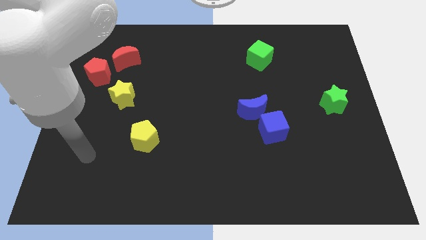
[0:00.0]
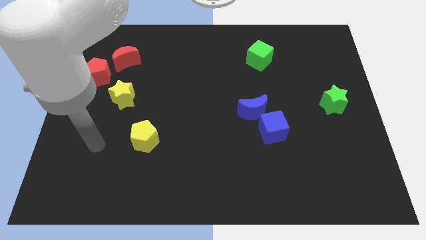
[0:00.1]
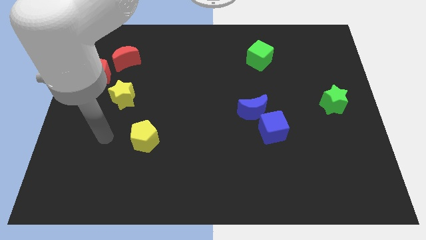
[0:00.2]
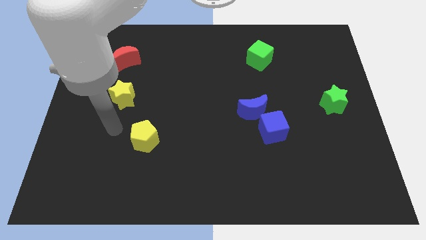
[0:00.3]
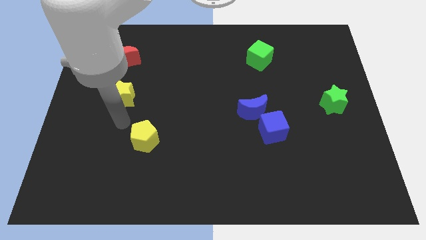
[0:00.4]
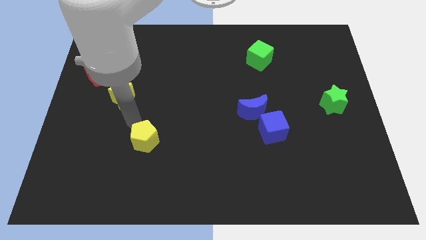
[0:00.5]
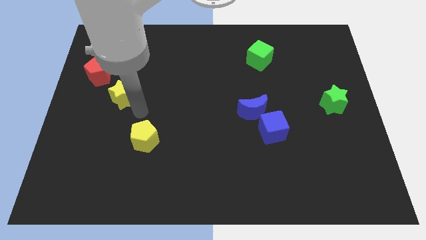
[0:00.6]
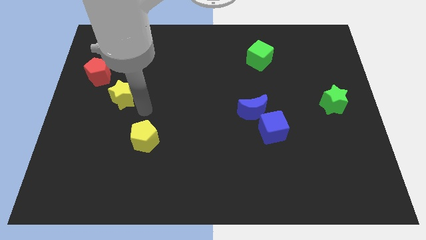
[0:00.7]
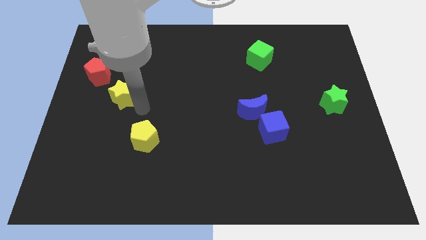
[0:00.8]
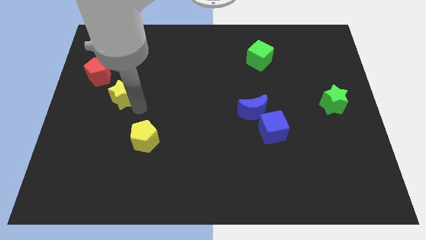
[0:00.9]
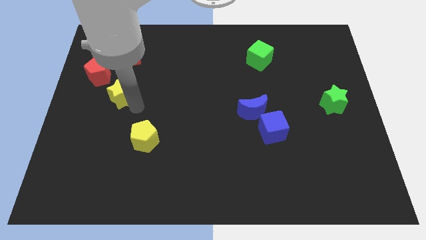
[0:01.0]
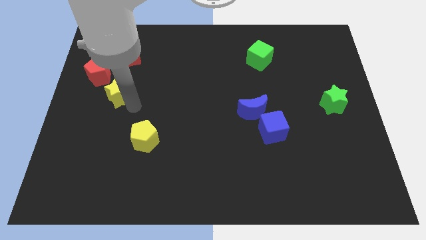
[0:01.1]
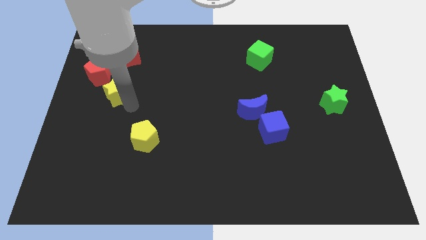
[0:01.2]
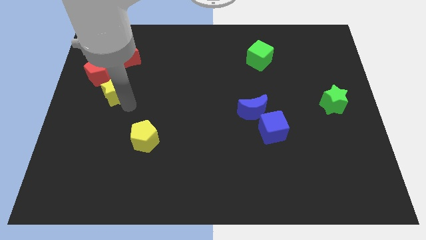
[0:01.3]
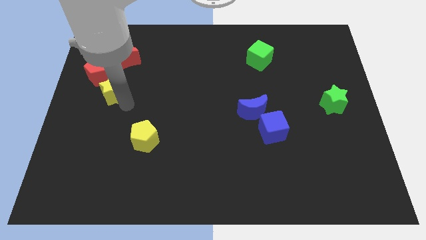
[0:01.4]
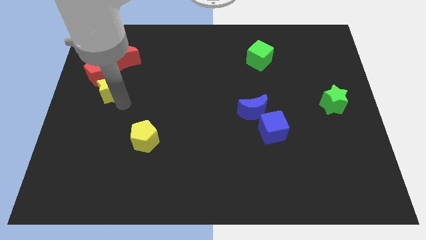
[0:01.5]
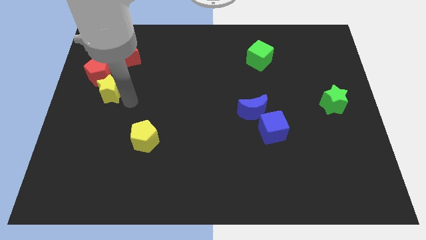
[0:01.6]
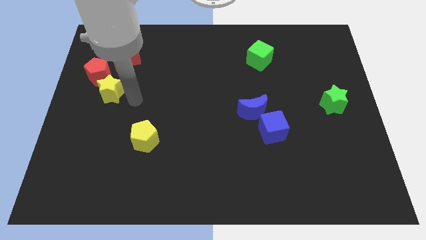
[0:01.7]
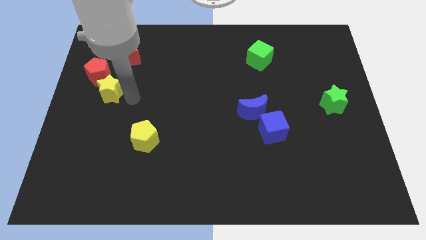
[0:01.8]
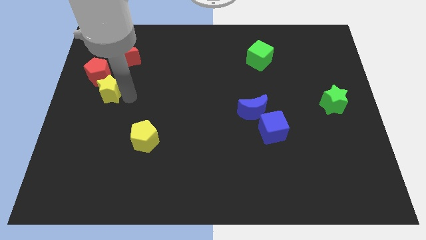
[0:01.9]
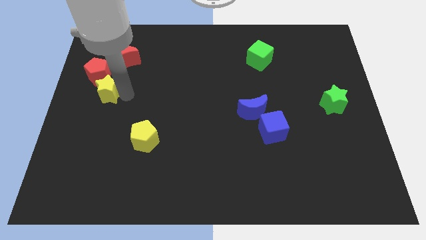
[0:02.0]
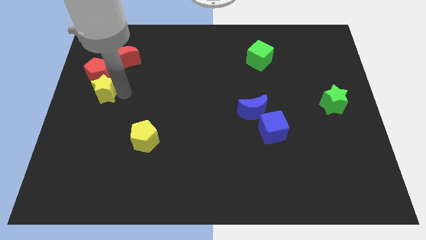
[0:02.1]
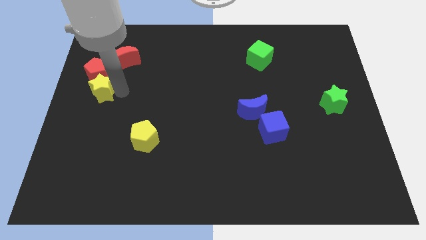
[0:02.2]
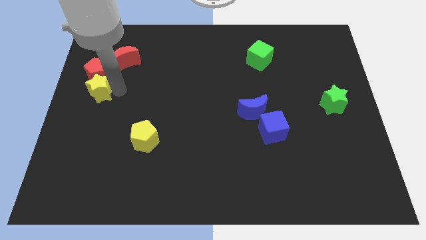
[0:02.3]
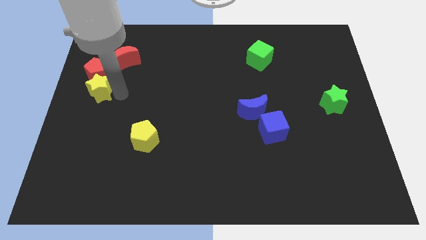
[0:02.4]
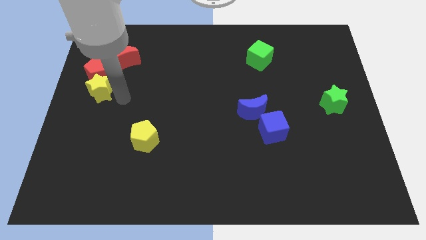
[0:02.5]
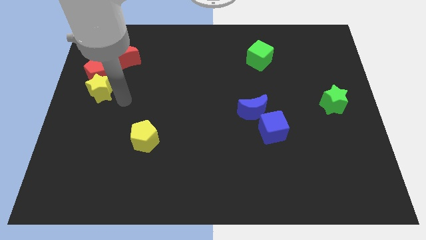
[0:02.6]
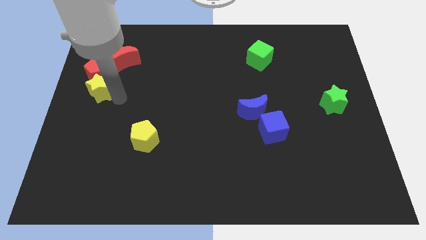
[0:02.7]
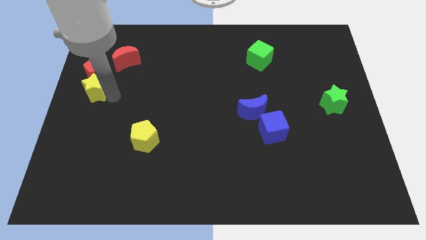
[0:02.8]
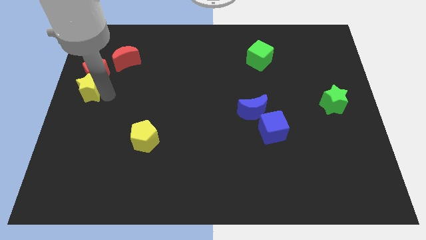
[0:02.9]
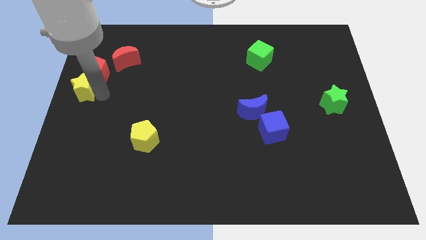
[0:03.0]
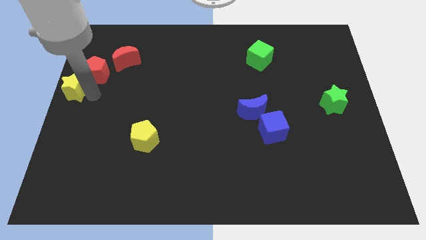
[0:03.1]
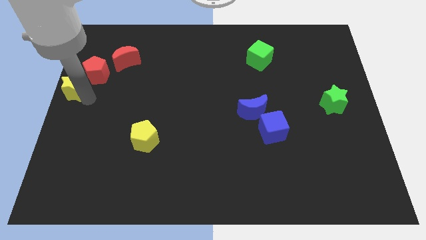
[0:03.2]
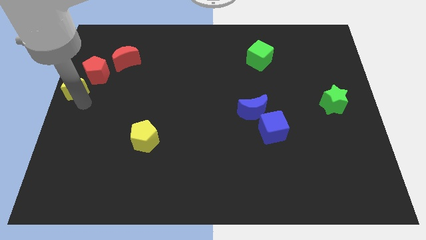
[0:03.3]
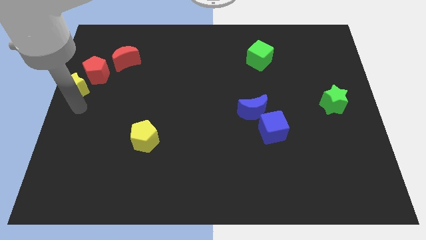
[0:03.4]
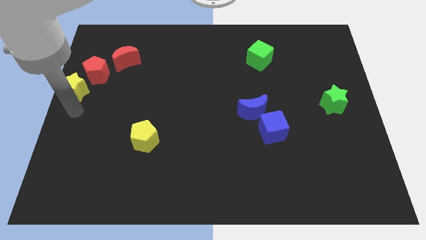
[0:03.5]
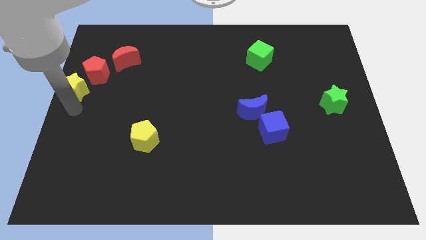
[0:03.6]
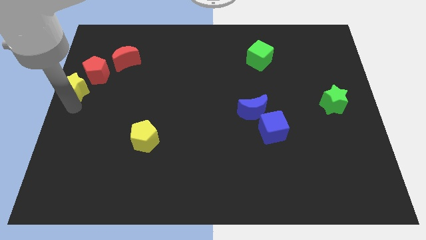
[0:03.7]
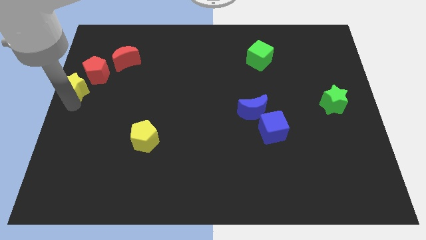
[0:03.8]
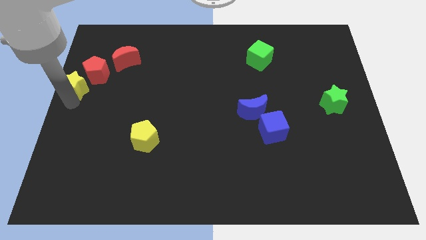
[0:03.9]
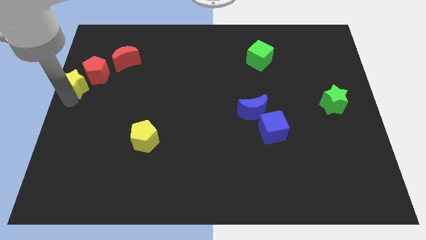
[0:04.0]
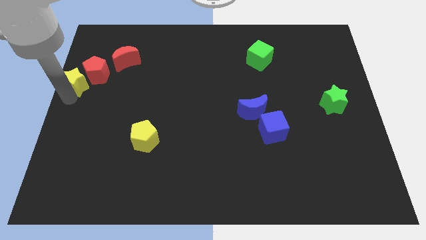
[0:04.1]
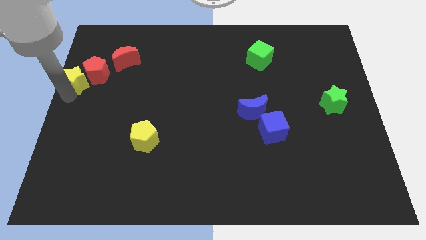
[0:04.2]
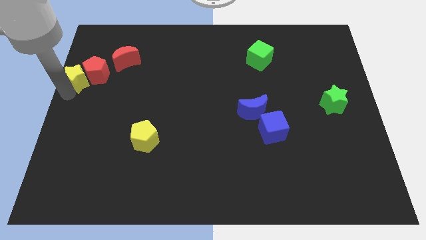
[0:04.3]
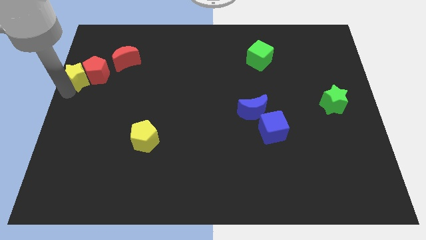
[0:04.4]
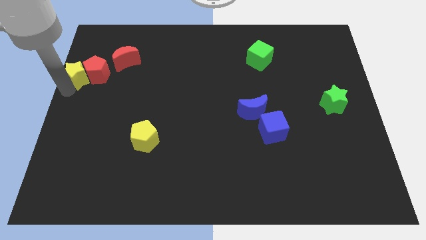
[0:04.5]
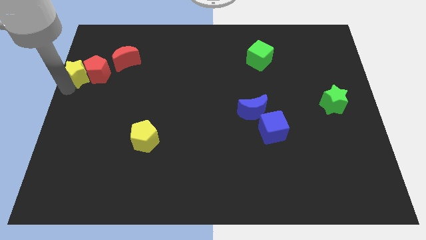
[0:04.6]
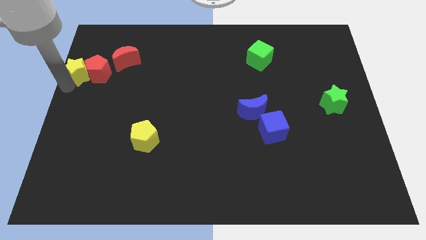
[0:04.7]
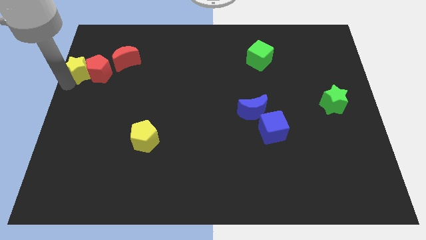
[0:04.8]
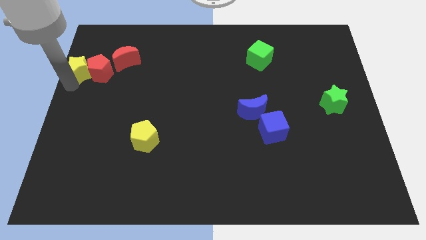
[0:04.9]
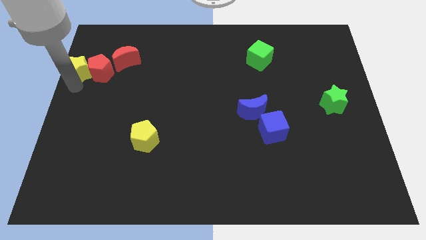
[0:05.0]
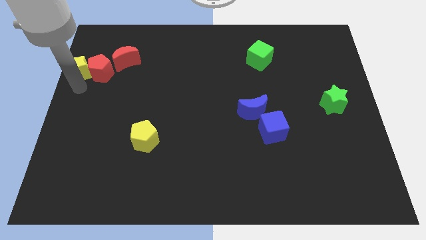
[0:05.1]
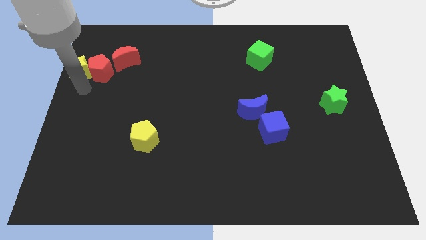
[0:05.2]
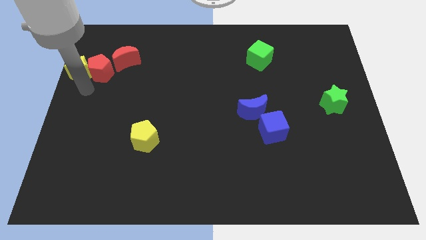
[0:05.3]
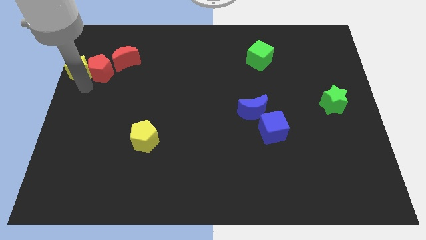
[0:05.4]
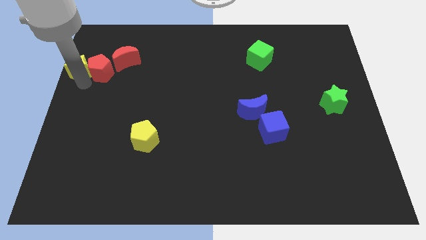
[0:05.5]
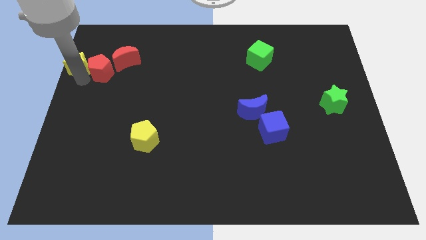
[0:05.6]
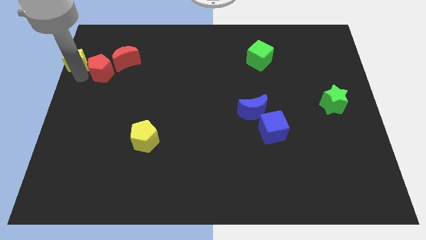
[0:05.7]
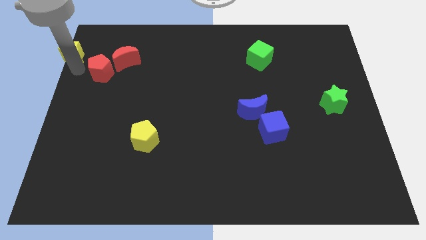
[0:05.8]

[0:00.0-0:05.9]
slide the yellow star to the top left of the board
